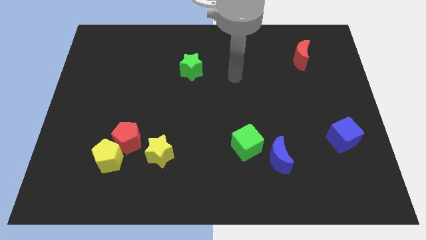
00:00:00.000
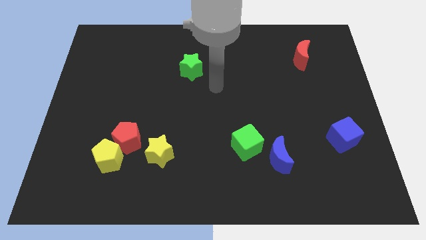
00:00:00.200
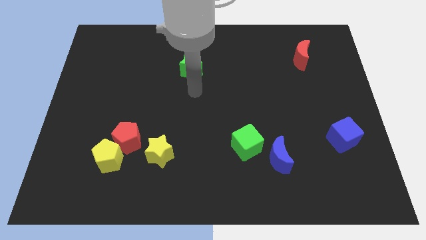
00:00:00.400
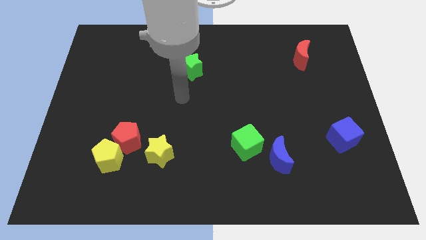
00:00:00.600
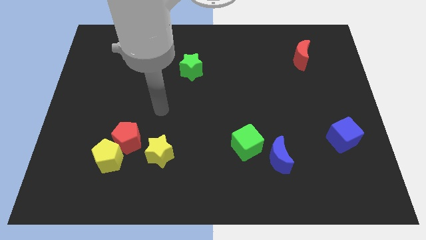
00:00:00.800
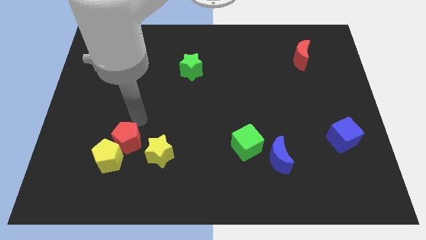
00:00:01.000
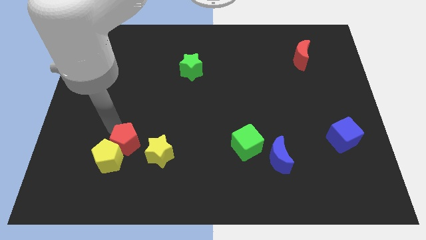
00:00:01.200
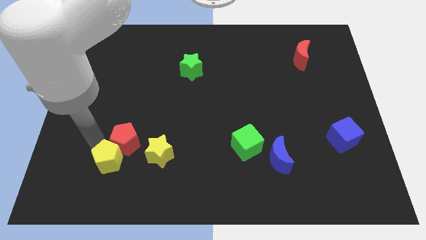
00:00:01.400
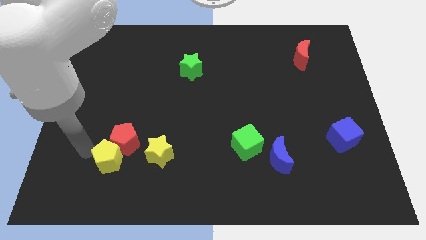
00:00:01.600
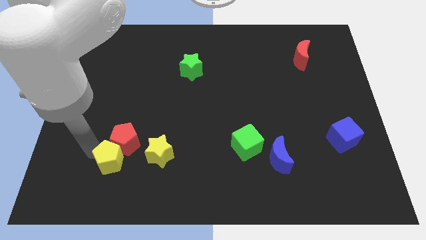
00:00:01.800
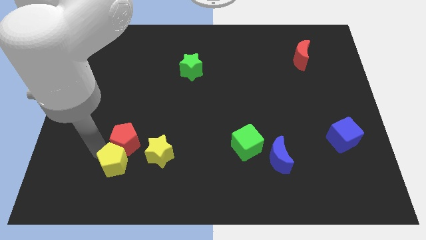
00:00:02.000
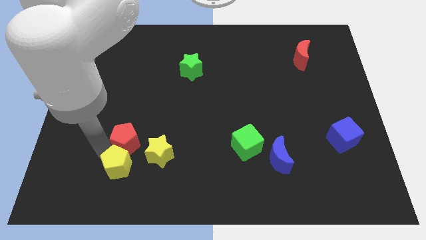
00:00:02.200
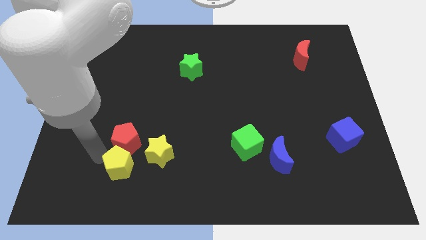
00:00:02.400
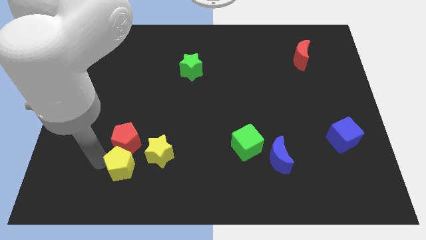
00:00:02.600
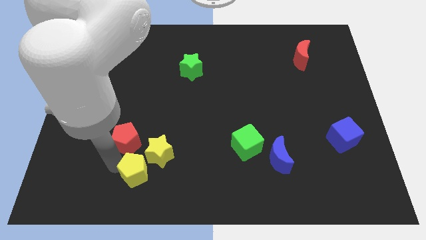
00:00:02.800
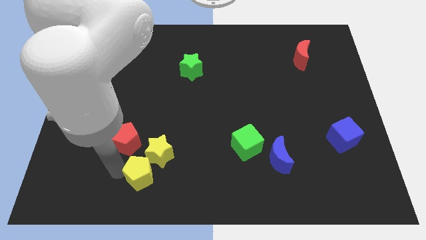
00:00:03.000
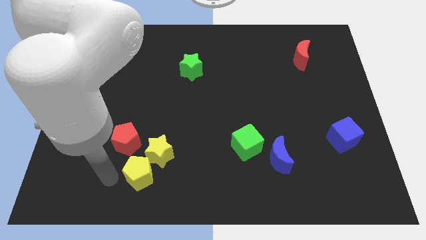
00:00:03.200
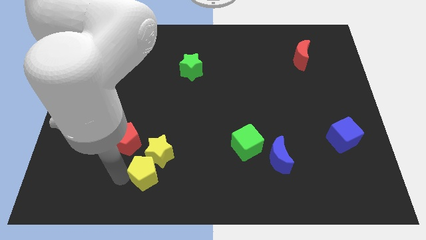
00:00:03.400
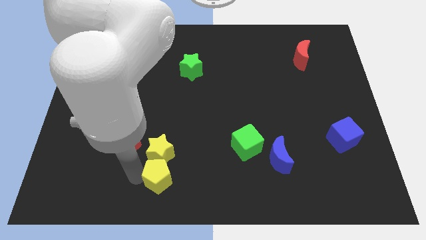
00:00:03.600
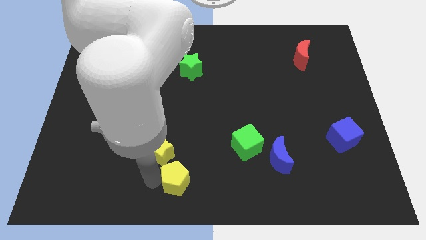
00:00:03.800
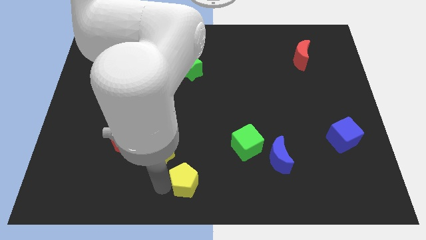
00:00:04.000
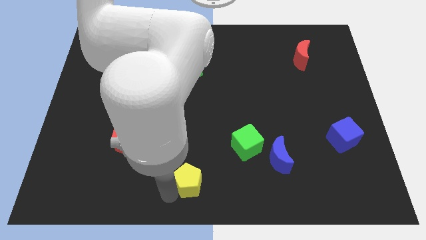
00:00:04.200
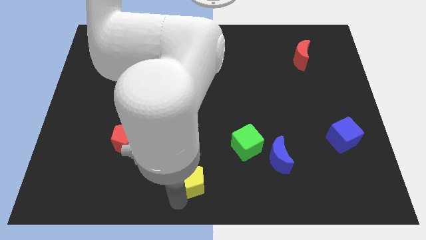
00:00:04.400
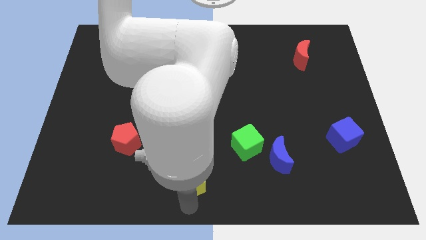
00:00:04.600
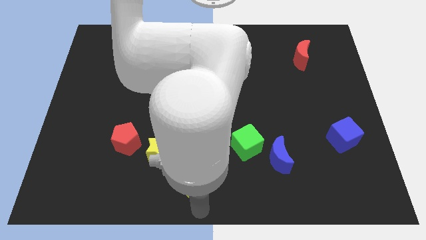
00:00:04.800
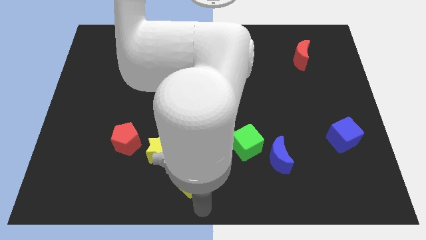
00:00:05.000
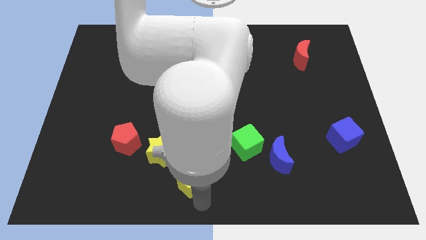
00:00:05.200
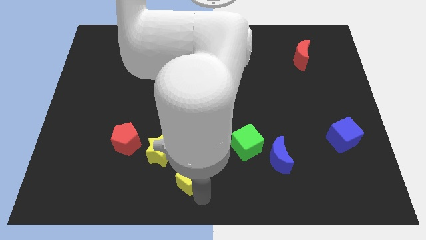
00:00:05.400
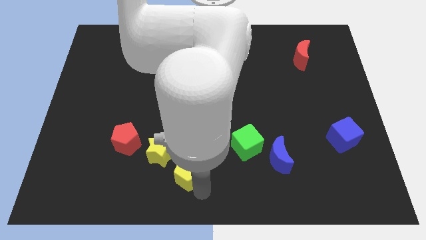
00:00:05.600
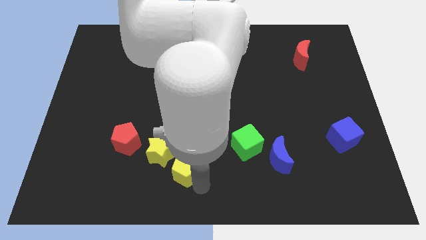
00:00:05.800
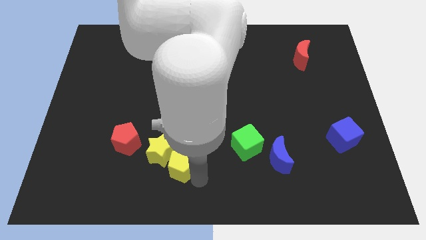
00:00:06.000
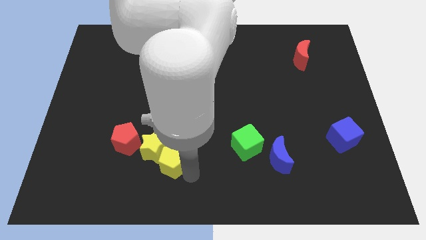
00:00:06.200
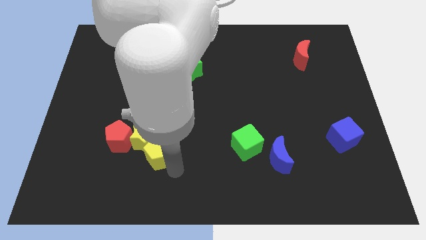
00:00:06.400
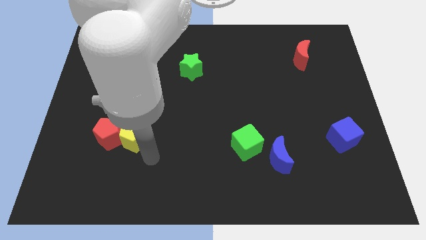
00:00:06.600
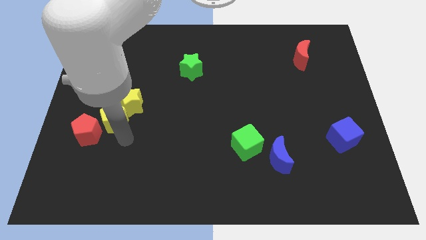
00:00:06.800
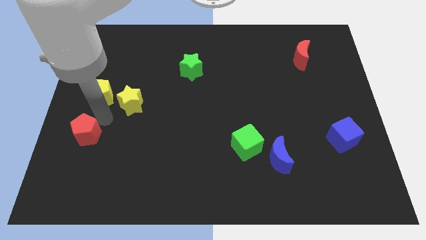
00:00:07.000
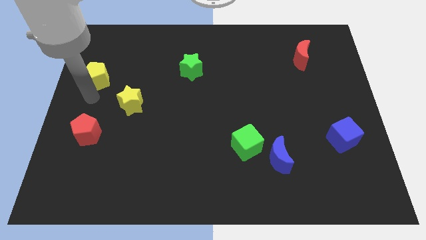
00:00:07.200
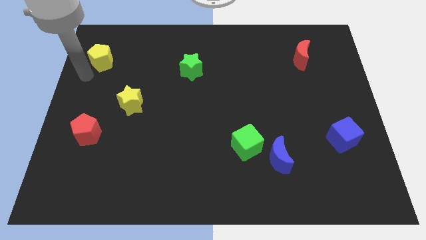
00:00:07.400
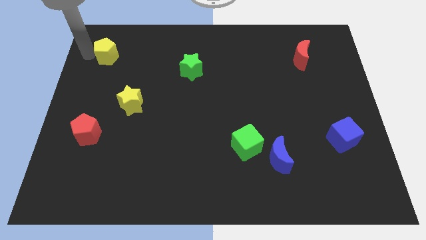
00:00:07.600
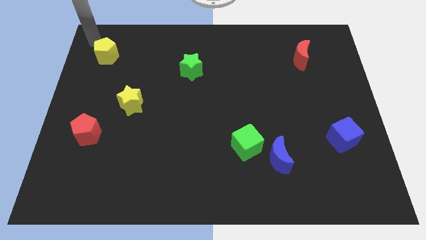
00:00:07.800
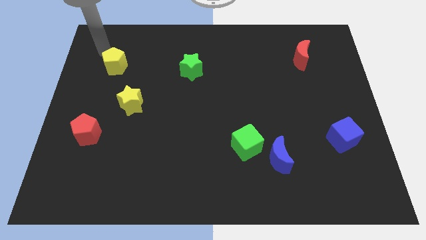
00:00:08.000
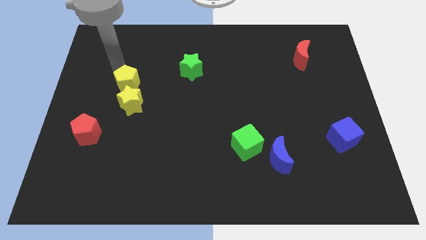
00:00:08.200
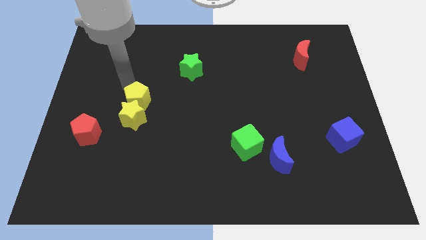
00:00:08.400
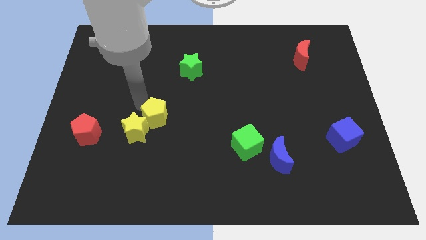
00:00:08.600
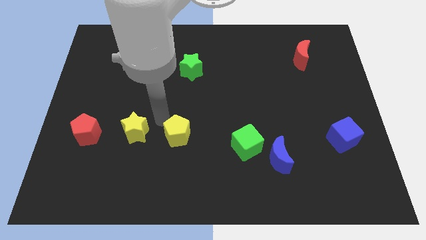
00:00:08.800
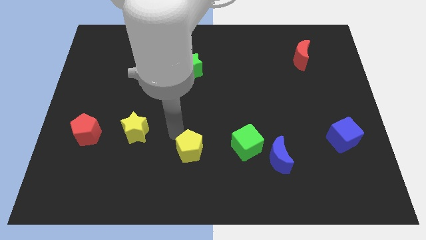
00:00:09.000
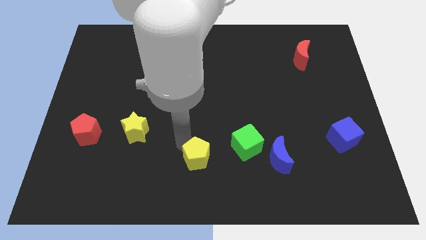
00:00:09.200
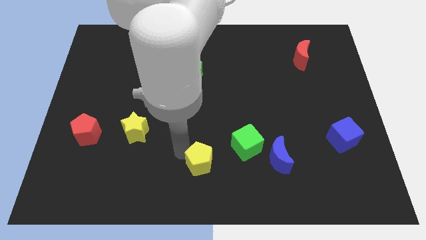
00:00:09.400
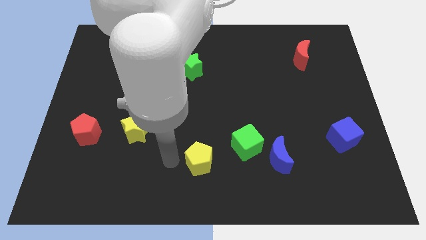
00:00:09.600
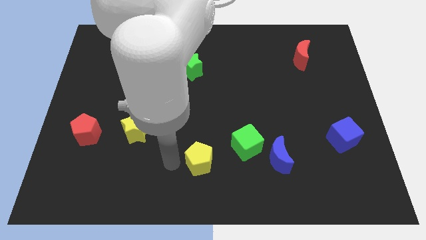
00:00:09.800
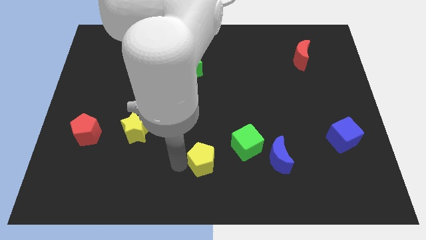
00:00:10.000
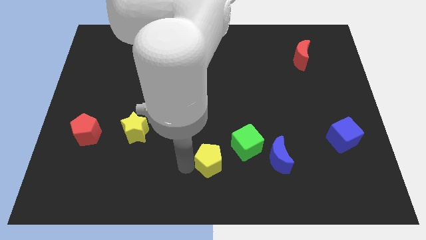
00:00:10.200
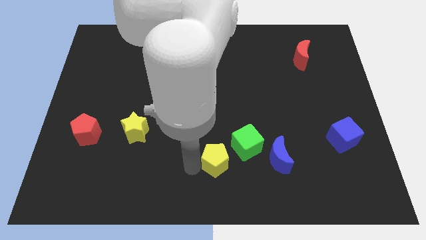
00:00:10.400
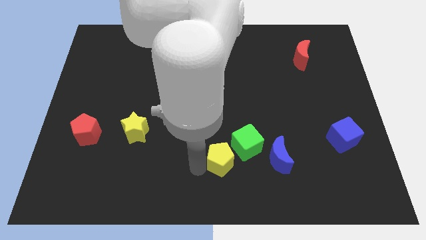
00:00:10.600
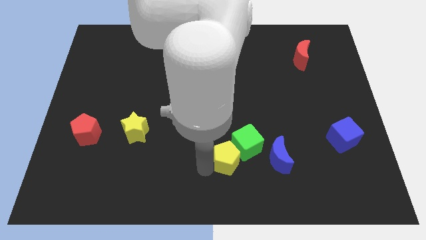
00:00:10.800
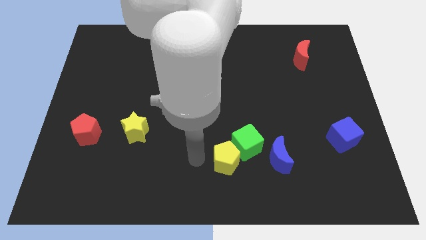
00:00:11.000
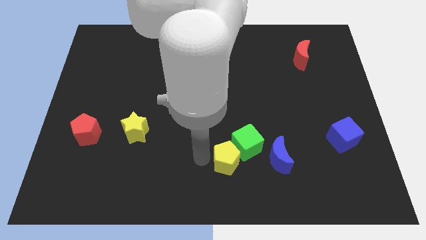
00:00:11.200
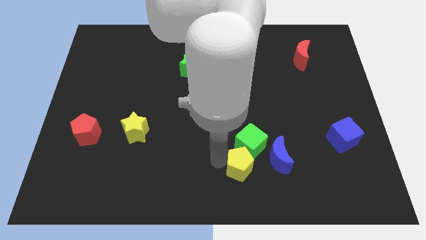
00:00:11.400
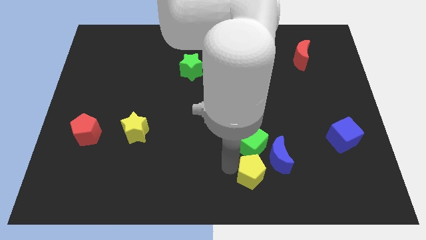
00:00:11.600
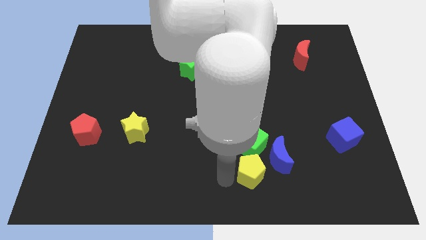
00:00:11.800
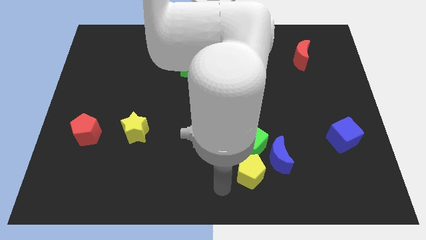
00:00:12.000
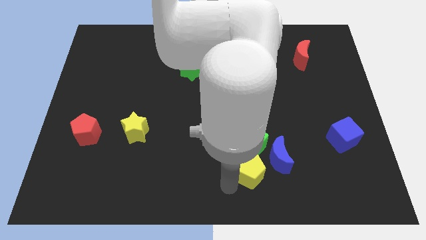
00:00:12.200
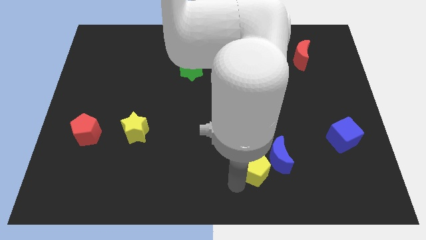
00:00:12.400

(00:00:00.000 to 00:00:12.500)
put the yellow pentagon close to the blue moon

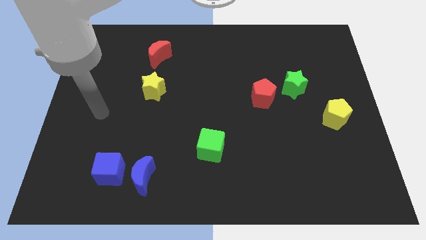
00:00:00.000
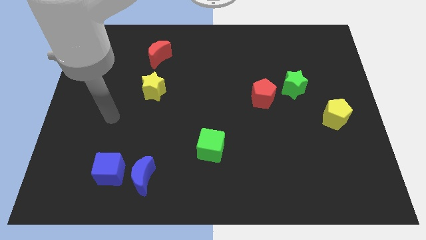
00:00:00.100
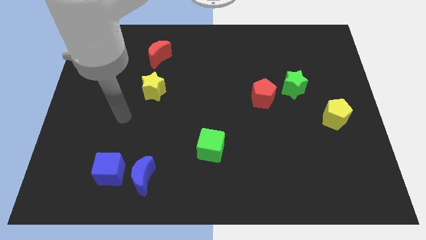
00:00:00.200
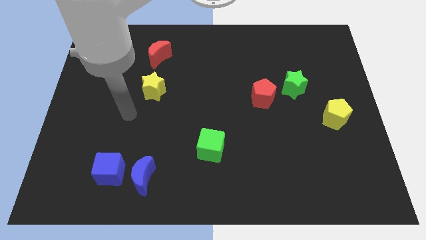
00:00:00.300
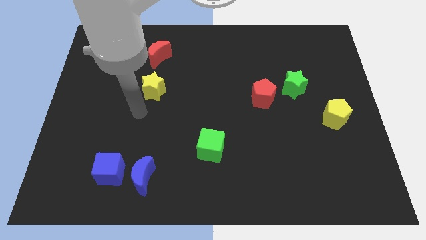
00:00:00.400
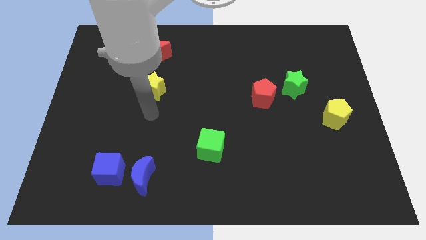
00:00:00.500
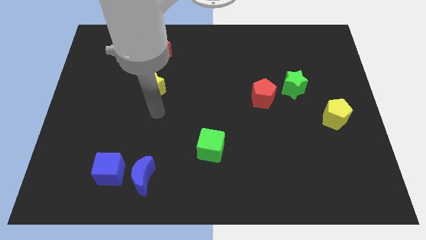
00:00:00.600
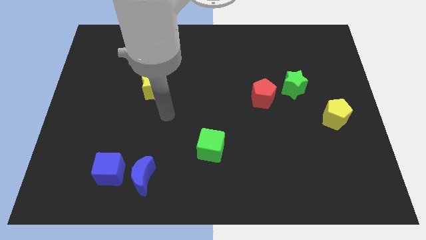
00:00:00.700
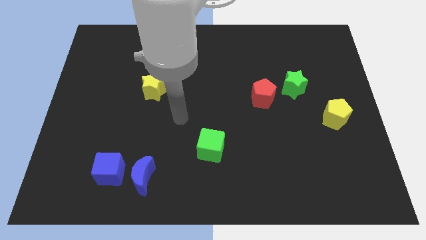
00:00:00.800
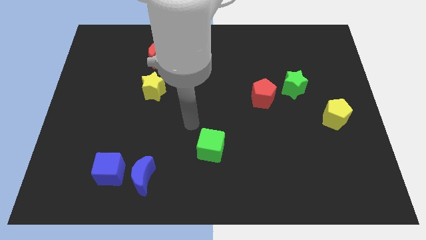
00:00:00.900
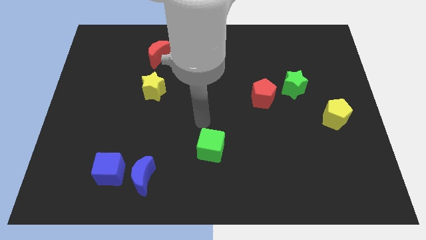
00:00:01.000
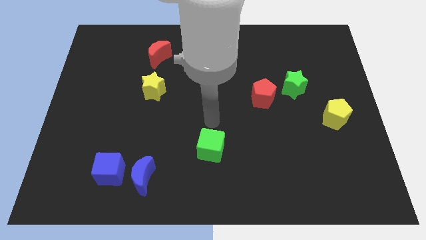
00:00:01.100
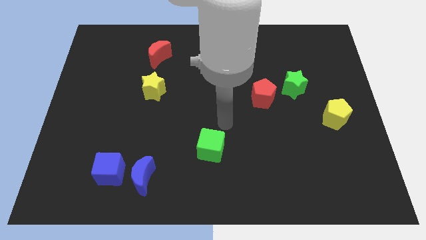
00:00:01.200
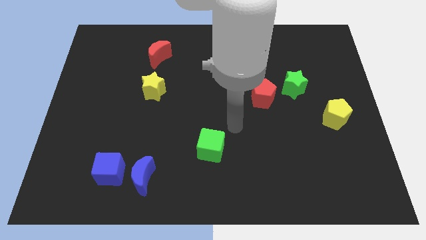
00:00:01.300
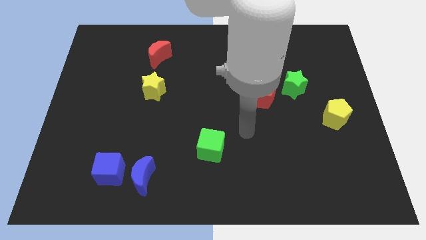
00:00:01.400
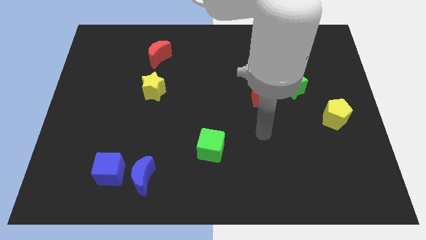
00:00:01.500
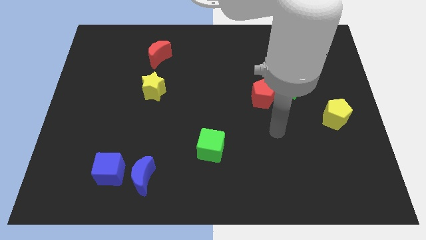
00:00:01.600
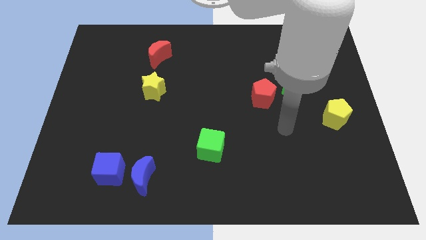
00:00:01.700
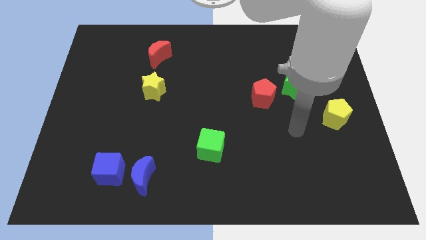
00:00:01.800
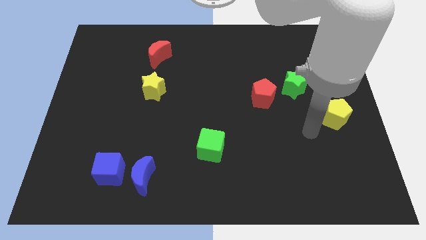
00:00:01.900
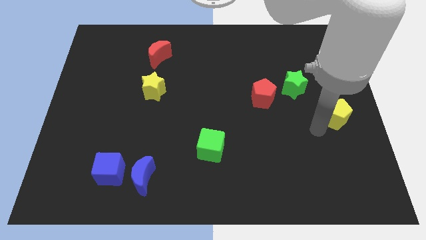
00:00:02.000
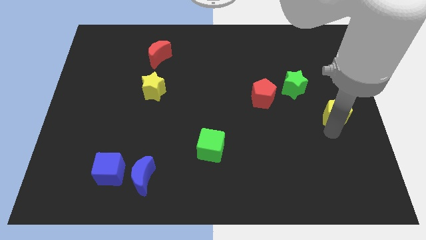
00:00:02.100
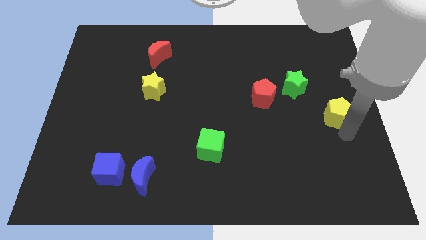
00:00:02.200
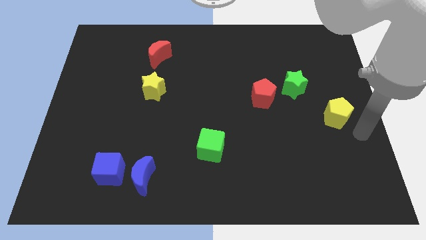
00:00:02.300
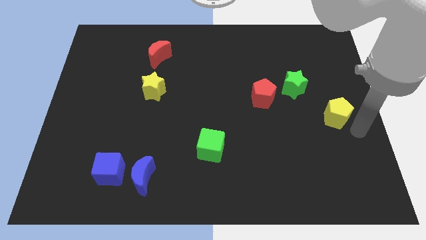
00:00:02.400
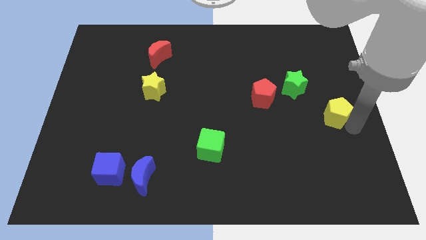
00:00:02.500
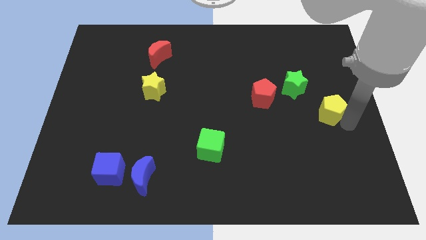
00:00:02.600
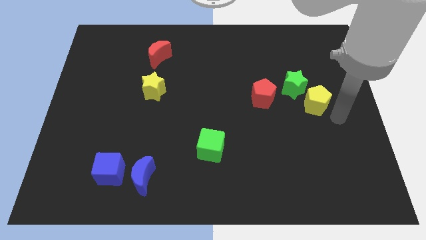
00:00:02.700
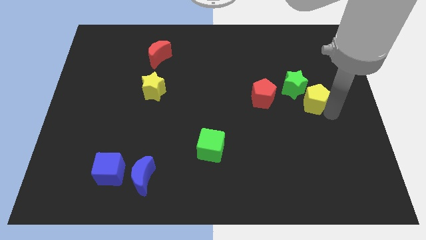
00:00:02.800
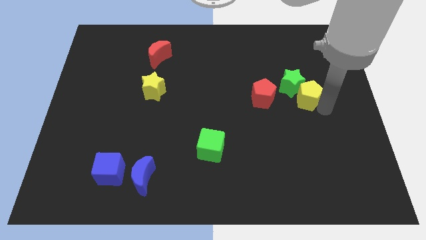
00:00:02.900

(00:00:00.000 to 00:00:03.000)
push the yellow pentagon to the green star
